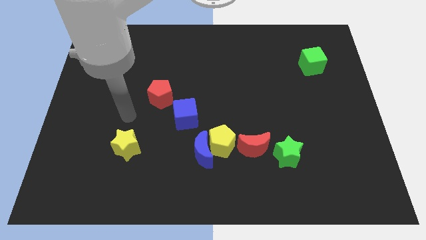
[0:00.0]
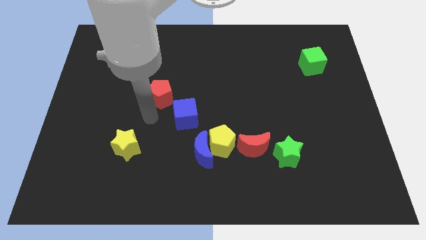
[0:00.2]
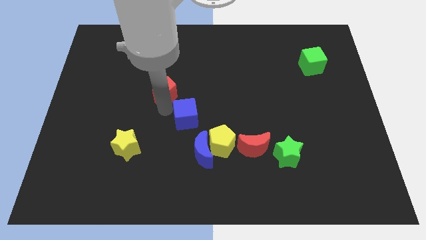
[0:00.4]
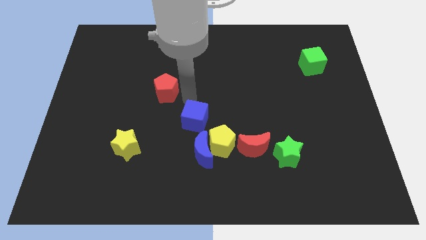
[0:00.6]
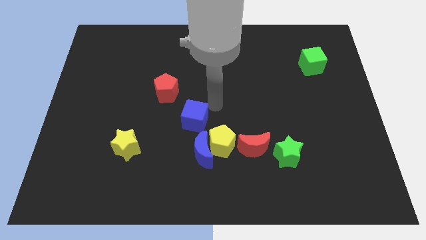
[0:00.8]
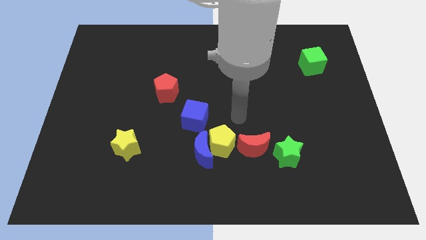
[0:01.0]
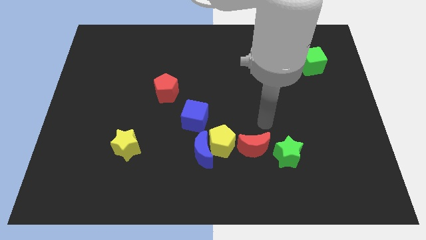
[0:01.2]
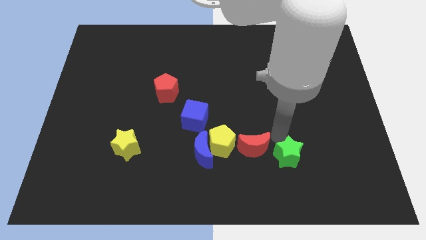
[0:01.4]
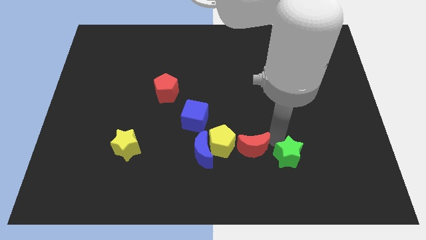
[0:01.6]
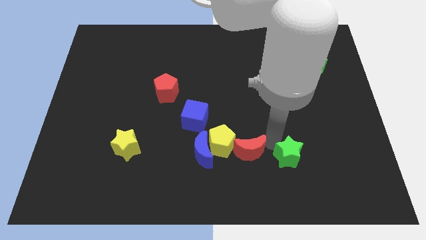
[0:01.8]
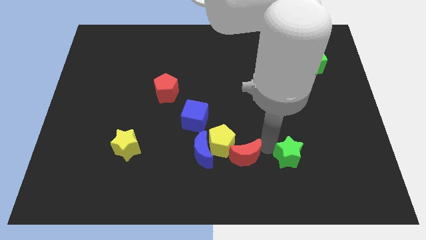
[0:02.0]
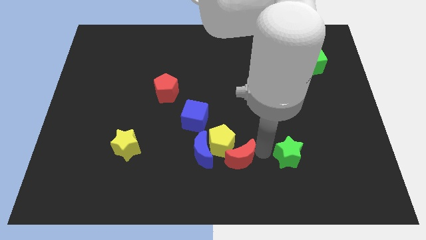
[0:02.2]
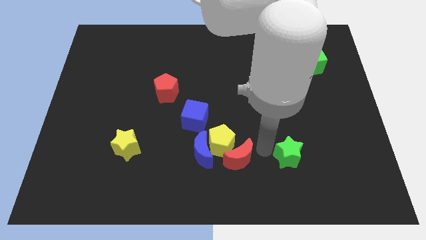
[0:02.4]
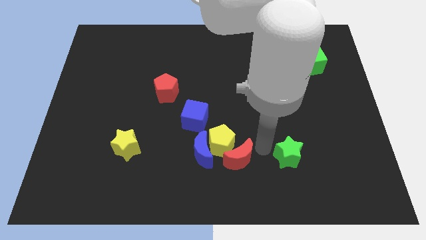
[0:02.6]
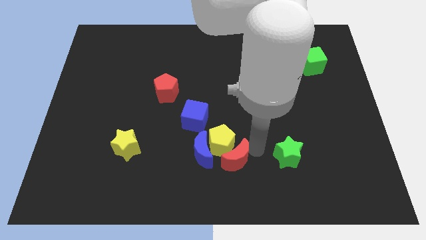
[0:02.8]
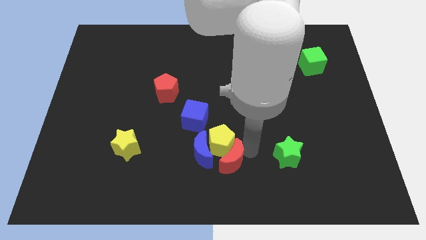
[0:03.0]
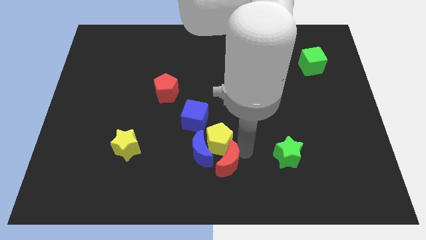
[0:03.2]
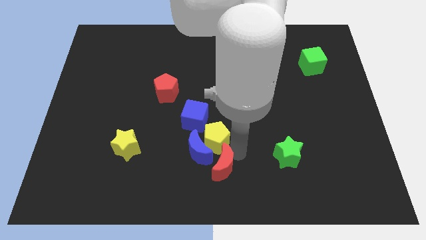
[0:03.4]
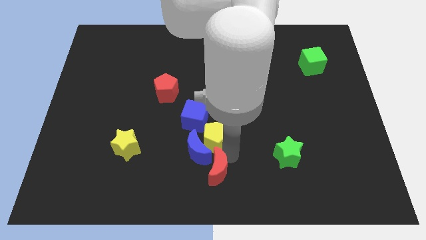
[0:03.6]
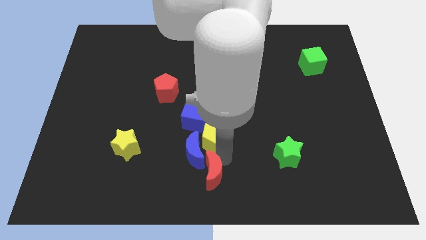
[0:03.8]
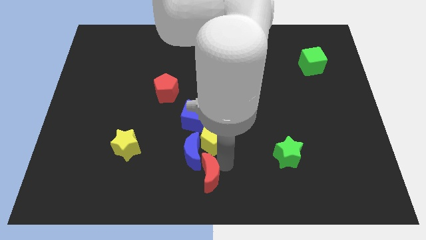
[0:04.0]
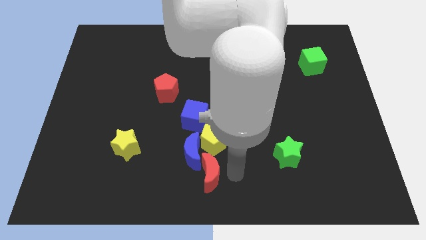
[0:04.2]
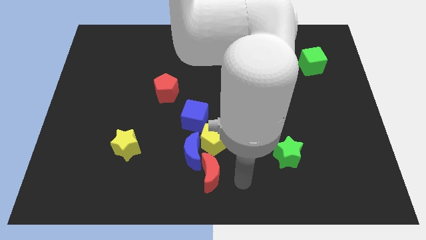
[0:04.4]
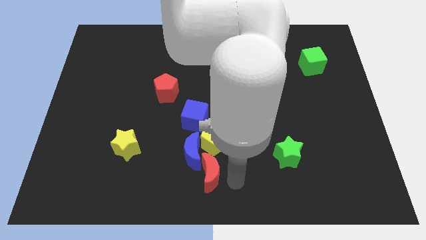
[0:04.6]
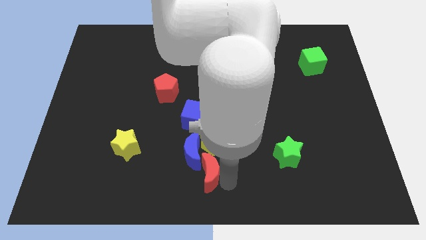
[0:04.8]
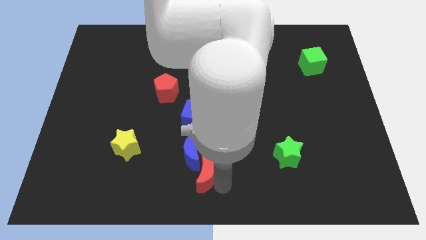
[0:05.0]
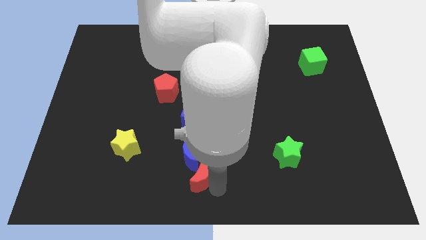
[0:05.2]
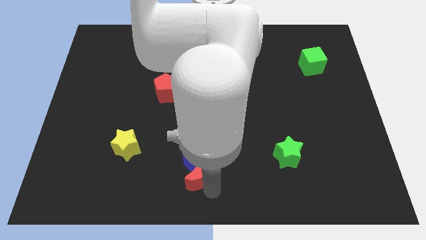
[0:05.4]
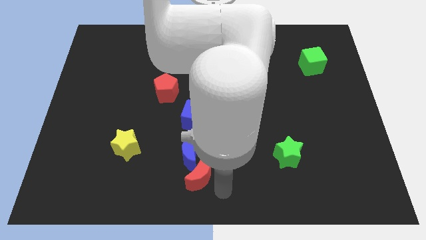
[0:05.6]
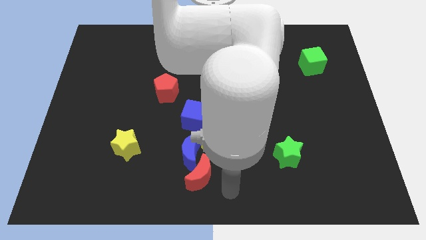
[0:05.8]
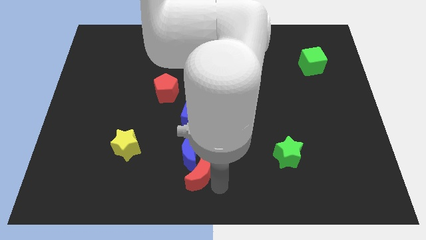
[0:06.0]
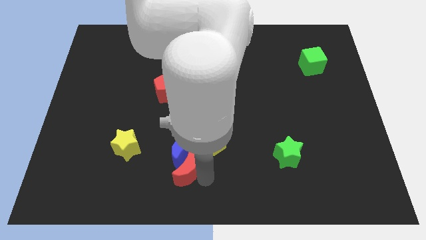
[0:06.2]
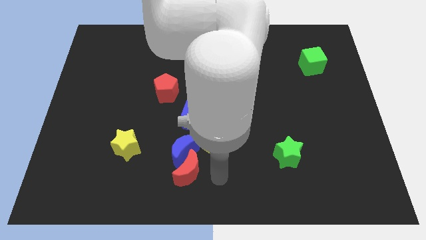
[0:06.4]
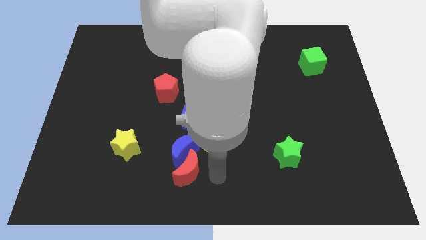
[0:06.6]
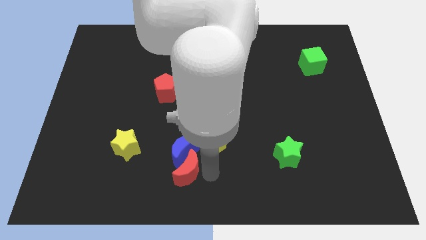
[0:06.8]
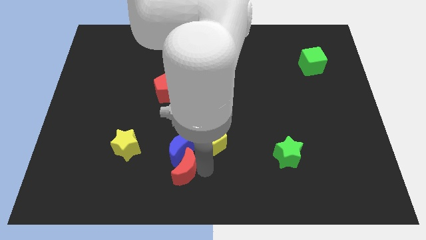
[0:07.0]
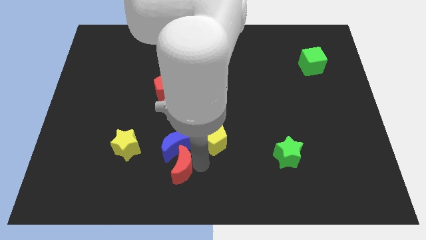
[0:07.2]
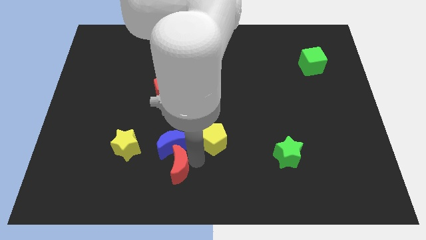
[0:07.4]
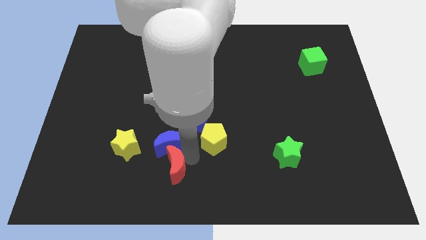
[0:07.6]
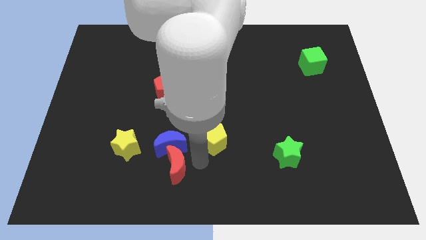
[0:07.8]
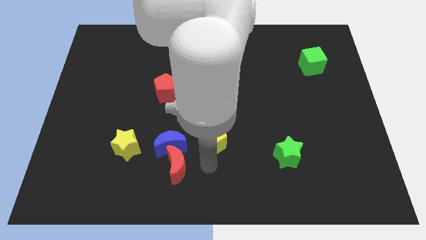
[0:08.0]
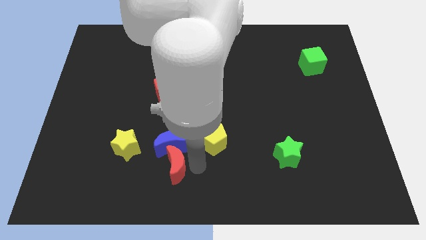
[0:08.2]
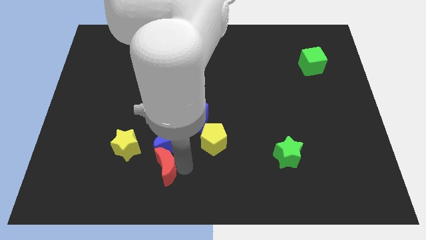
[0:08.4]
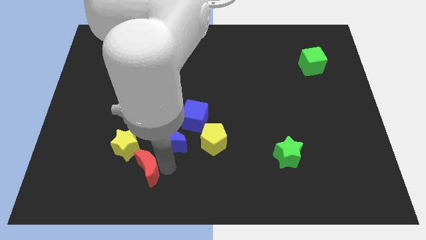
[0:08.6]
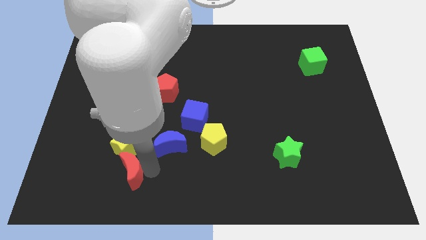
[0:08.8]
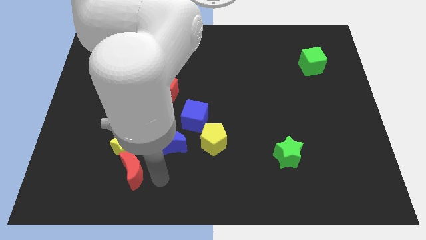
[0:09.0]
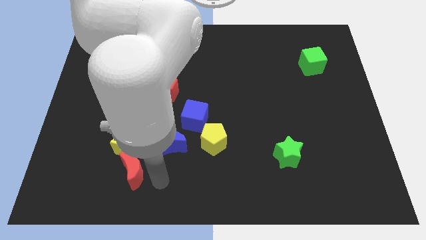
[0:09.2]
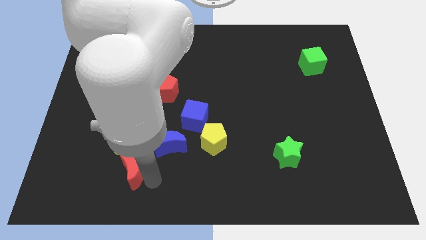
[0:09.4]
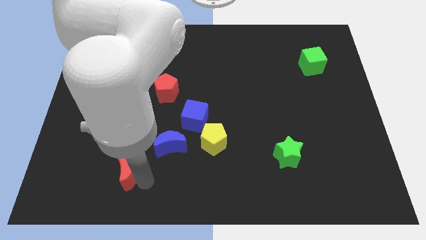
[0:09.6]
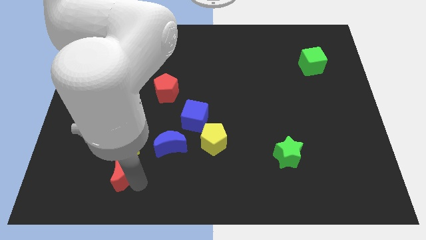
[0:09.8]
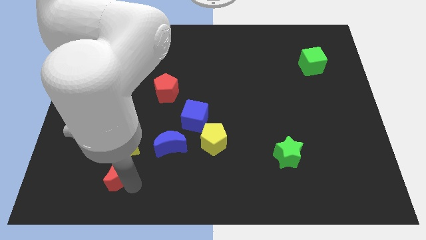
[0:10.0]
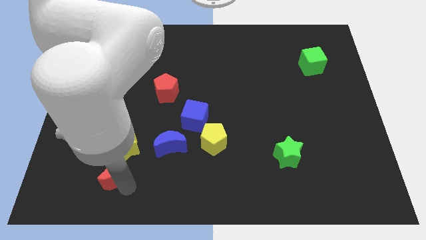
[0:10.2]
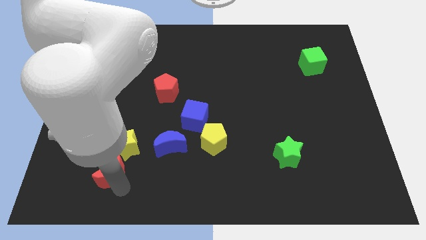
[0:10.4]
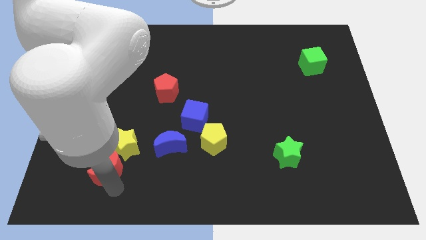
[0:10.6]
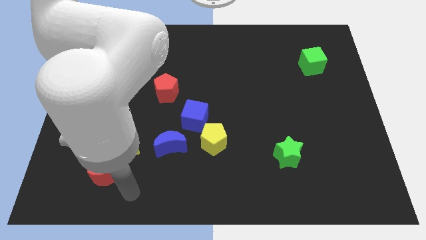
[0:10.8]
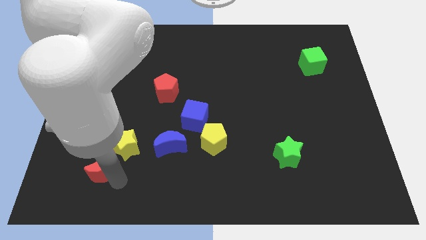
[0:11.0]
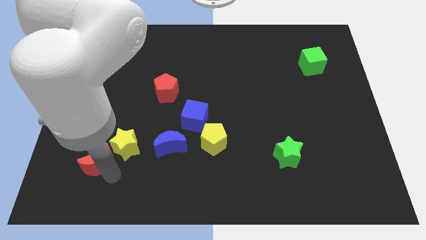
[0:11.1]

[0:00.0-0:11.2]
push the red moon just left of the yellow star

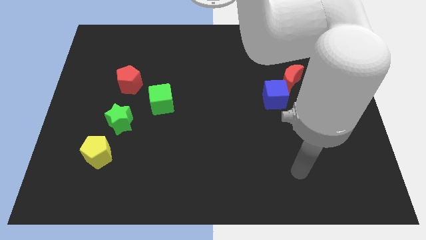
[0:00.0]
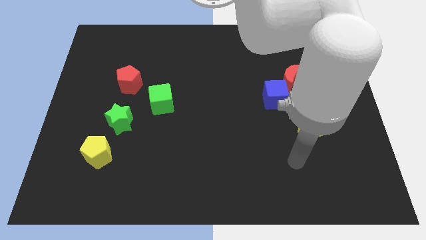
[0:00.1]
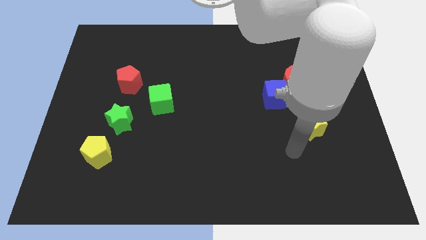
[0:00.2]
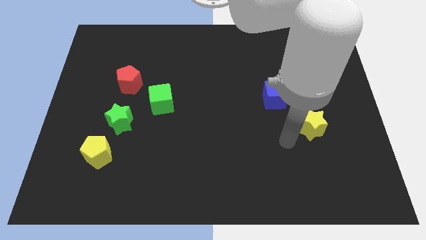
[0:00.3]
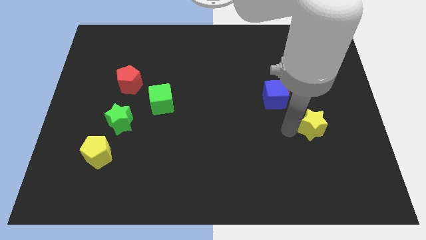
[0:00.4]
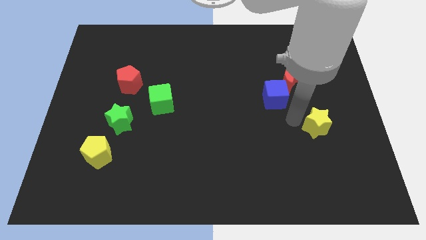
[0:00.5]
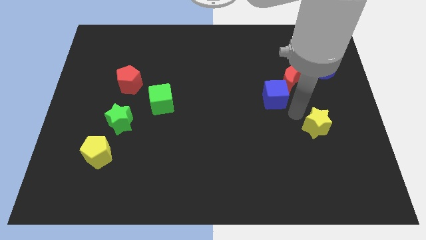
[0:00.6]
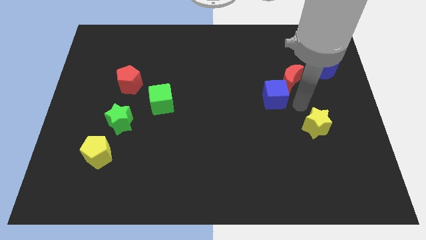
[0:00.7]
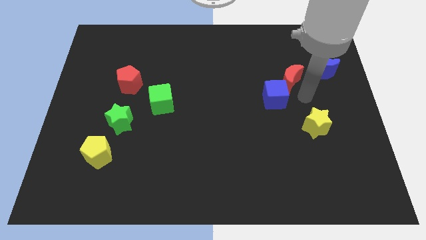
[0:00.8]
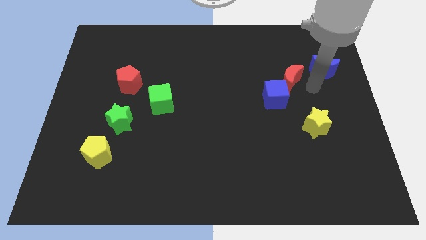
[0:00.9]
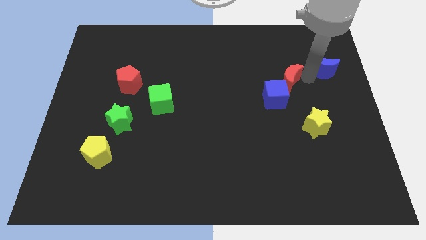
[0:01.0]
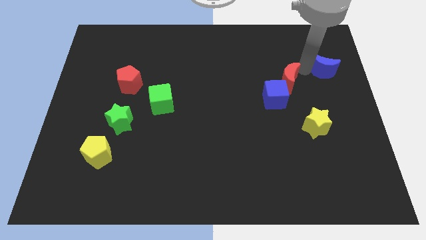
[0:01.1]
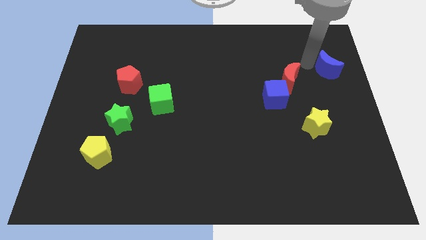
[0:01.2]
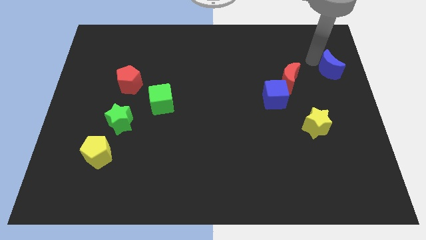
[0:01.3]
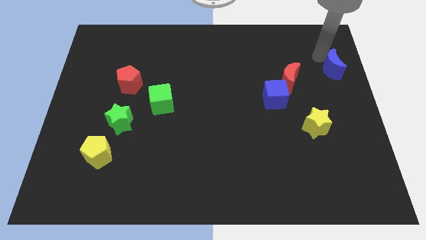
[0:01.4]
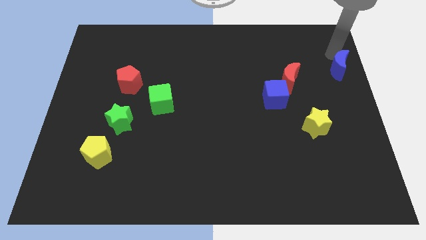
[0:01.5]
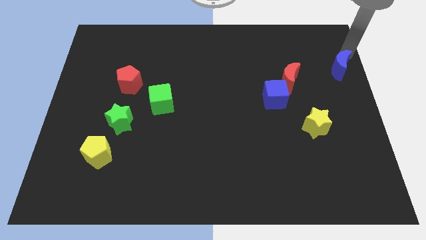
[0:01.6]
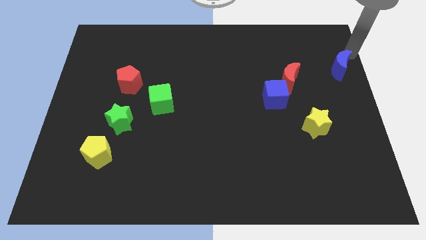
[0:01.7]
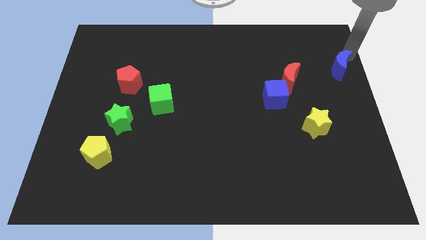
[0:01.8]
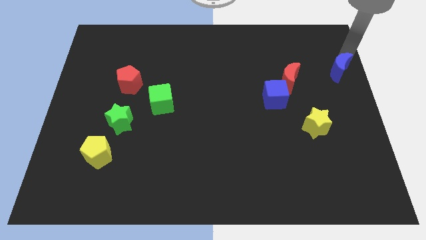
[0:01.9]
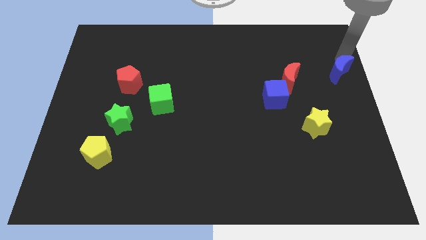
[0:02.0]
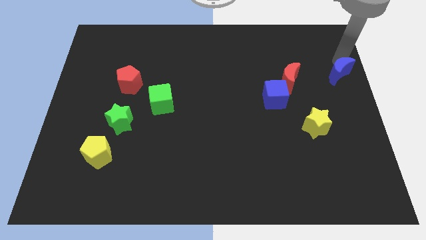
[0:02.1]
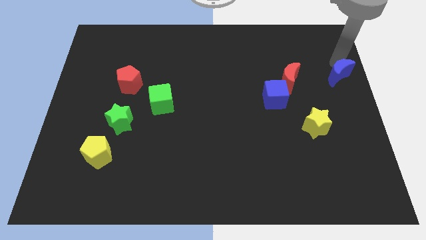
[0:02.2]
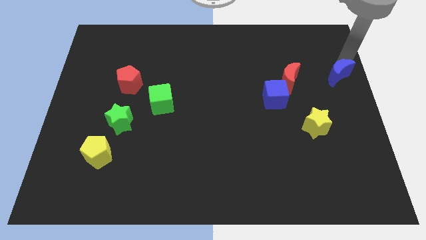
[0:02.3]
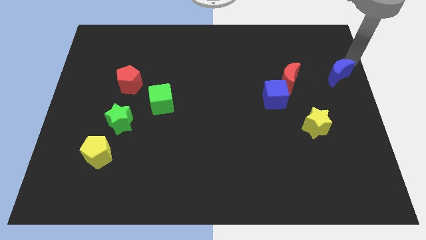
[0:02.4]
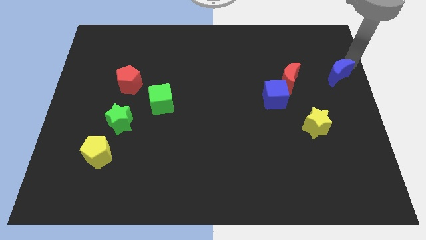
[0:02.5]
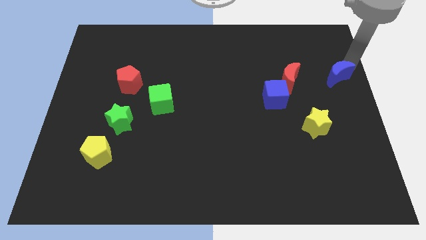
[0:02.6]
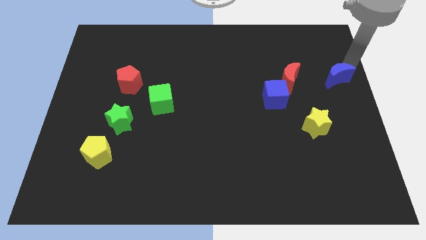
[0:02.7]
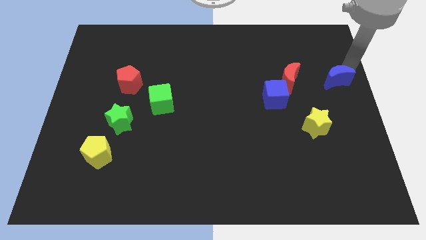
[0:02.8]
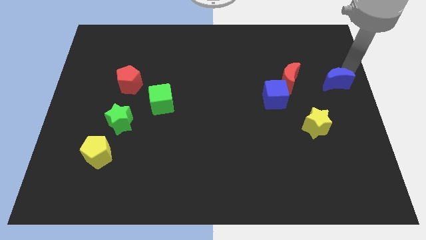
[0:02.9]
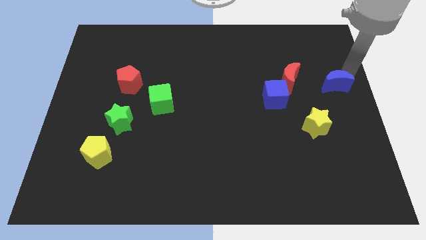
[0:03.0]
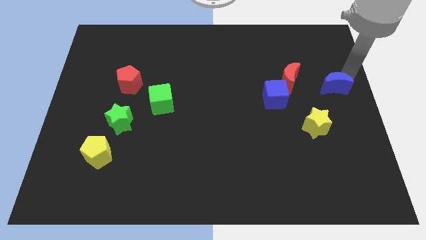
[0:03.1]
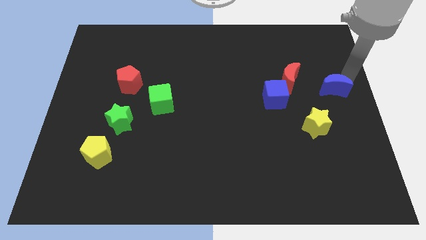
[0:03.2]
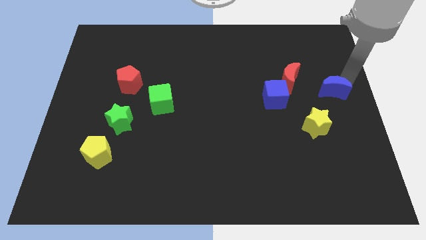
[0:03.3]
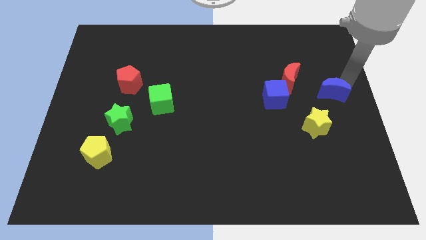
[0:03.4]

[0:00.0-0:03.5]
move the blue moon to the bottom right of the red moon
